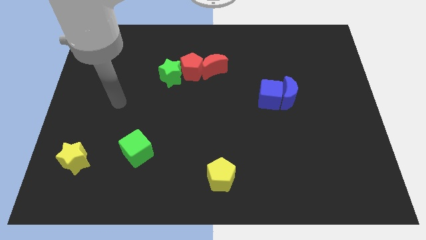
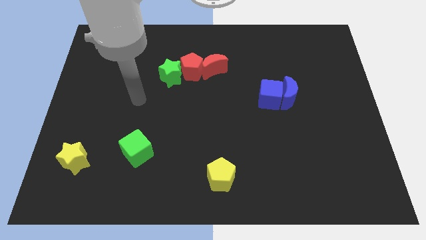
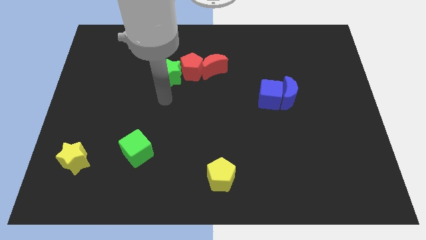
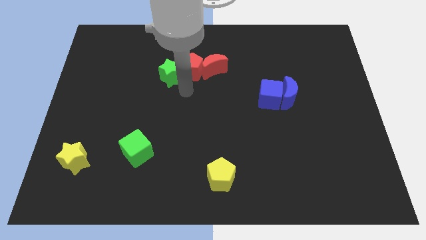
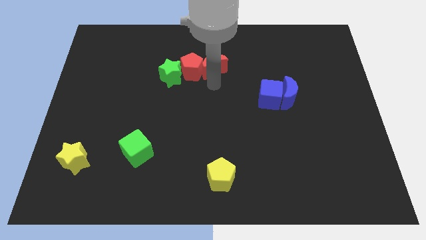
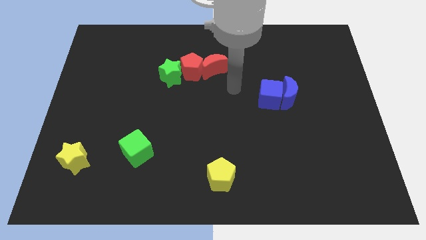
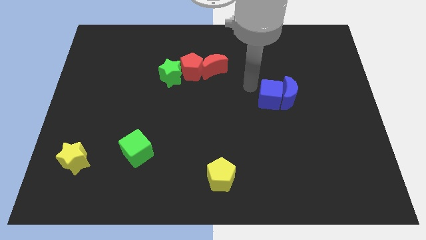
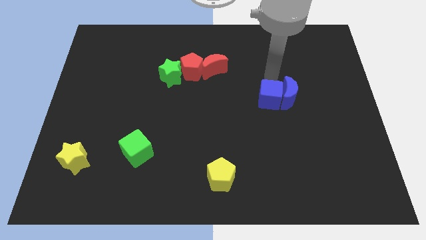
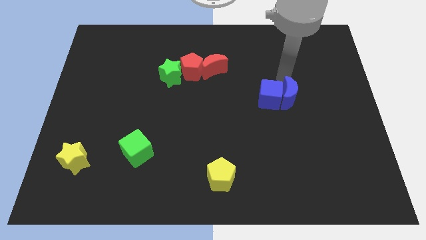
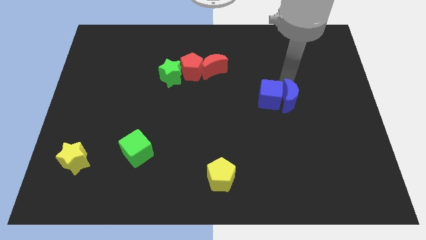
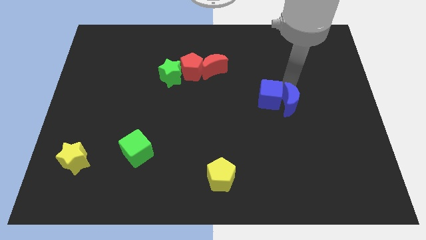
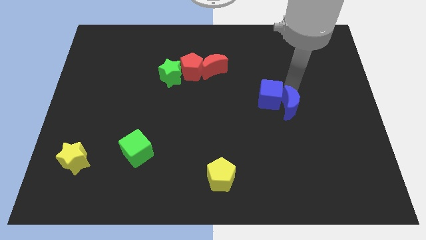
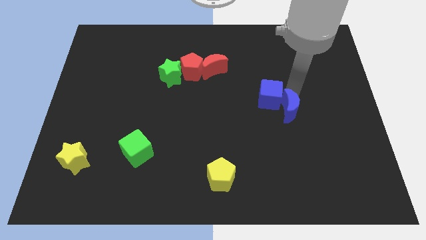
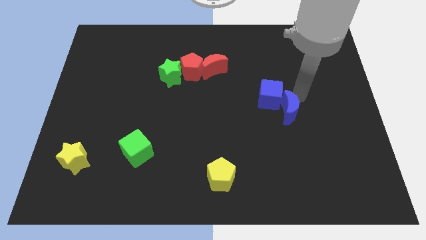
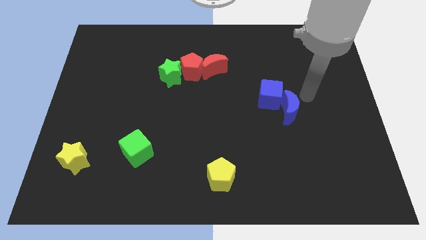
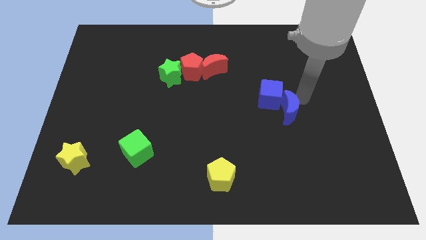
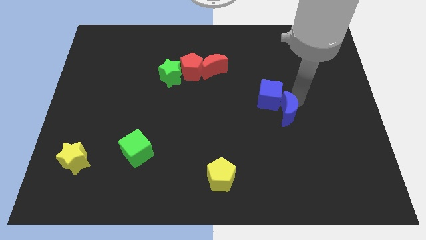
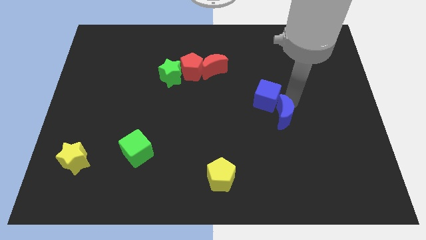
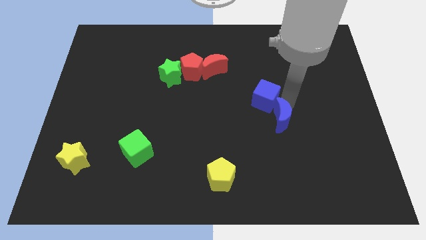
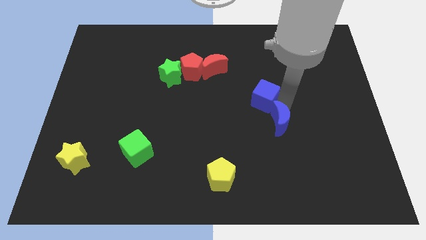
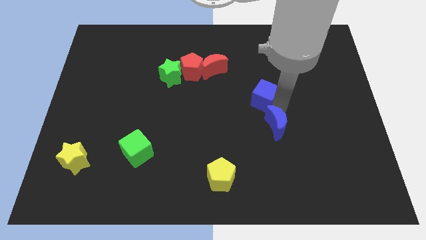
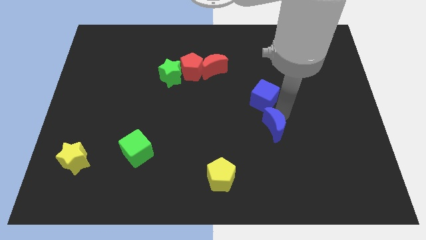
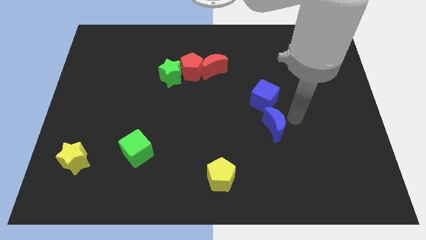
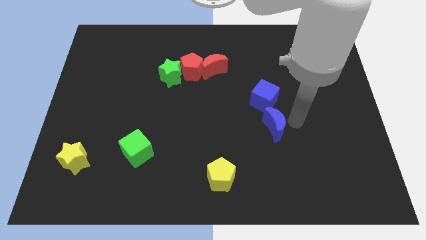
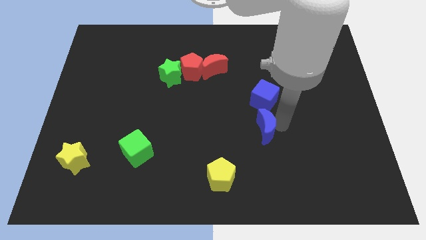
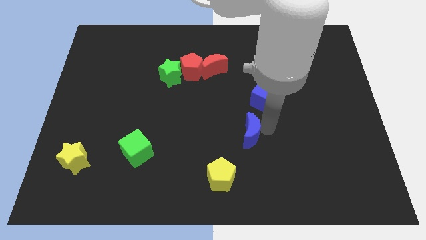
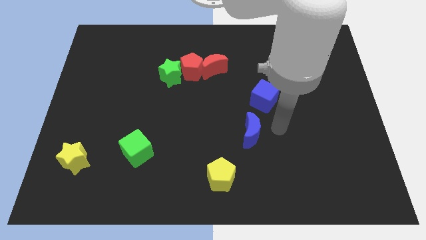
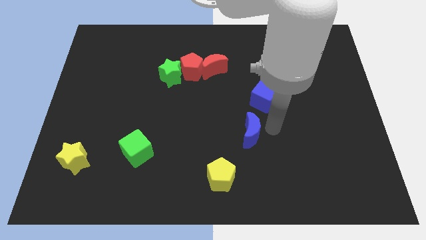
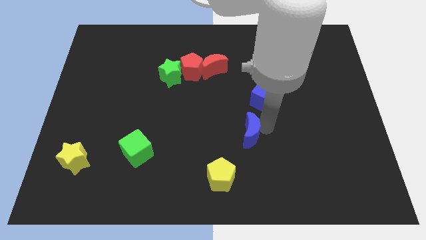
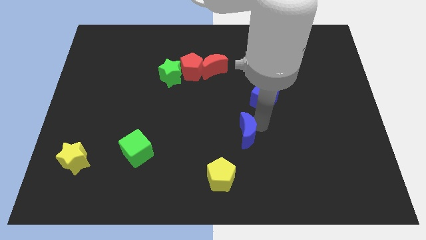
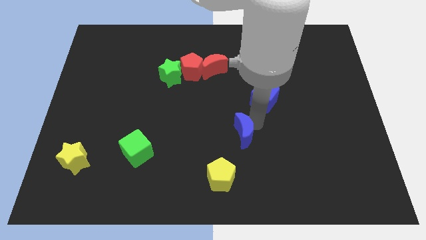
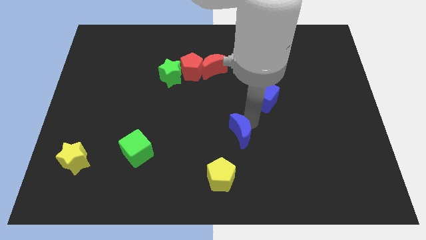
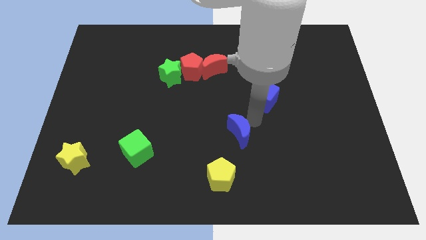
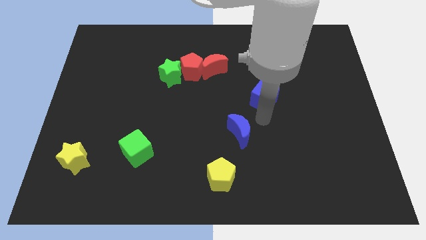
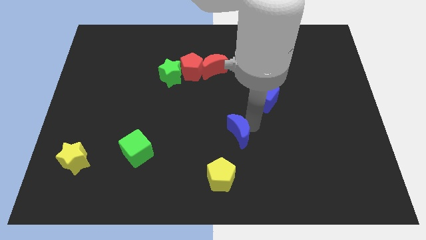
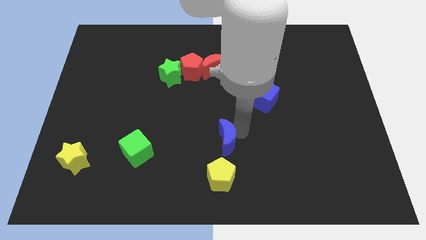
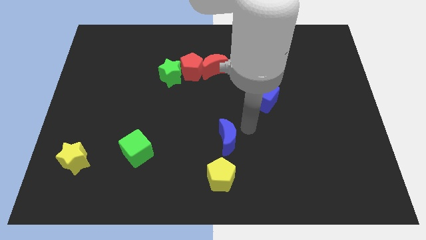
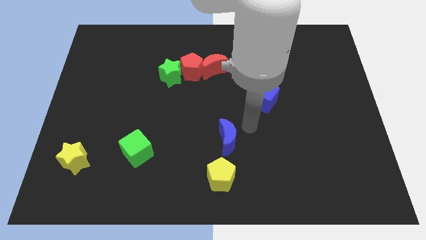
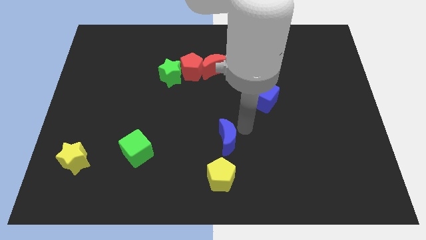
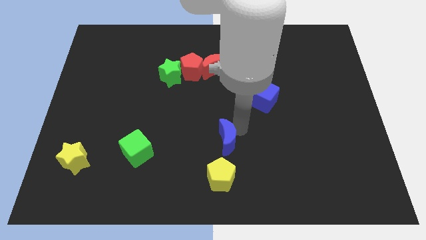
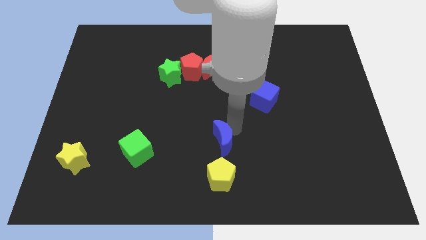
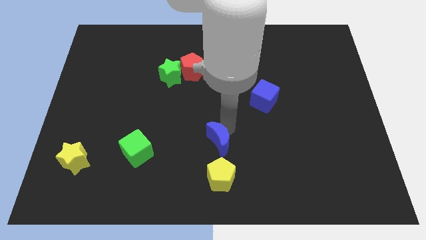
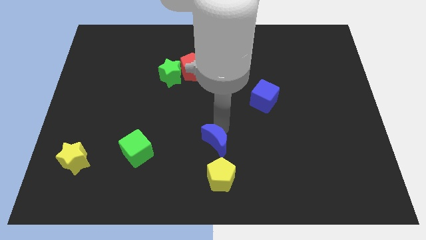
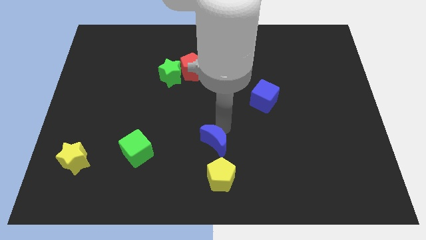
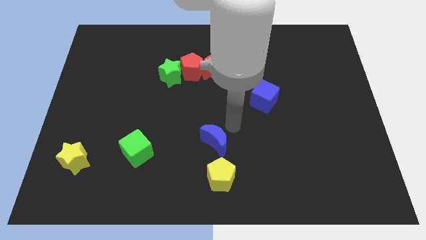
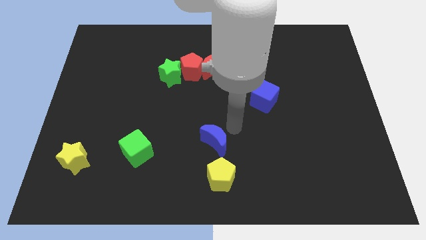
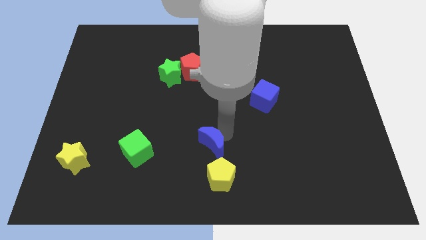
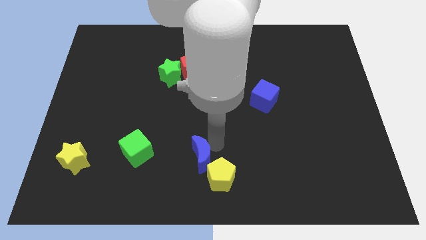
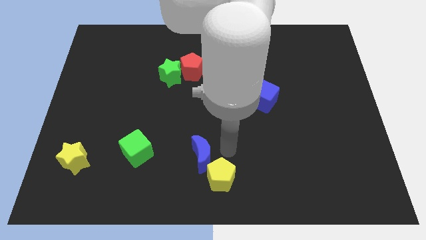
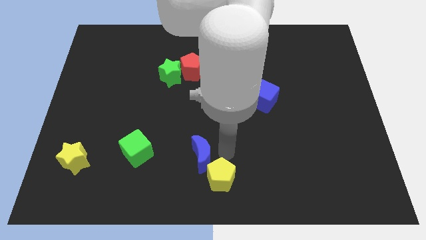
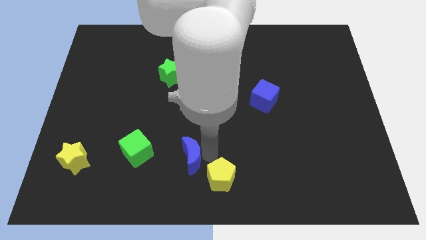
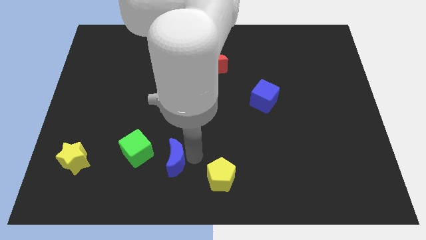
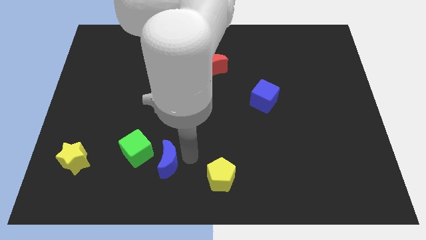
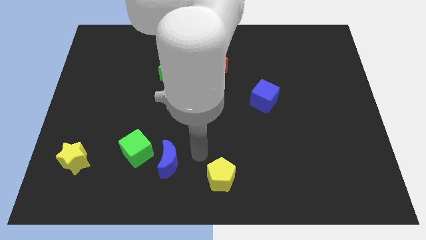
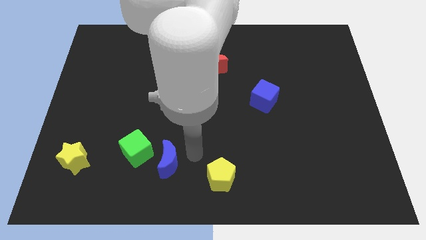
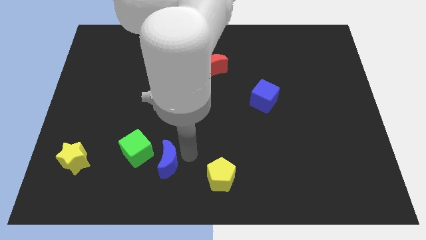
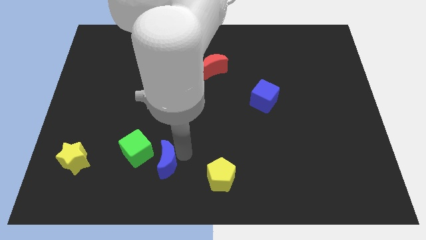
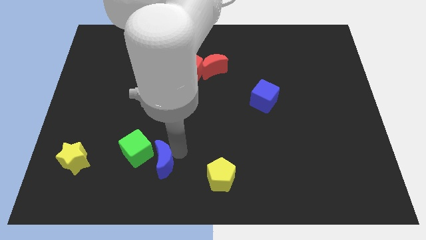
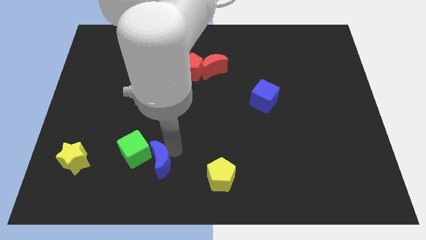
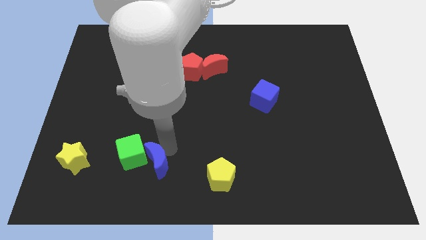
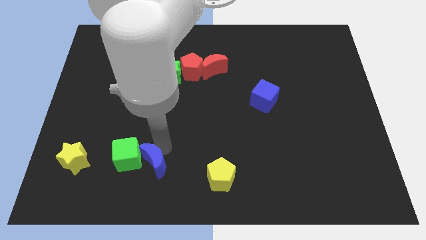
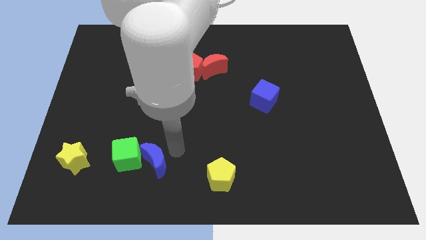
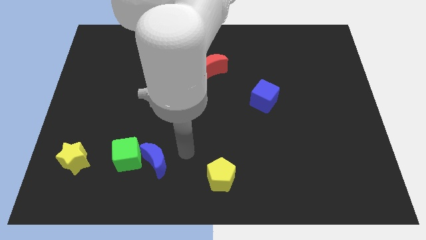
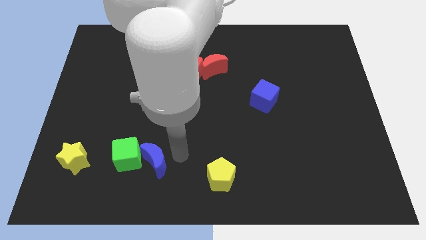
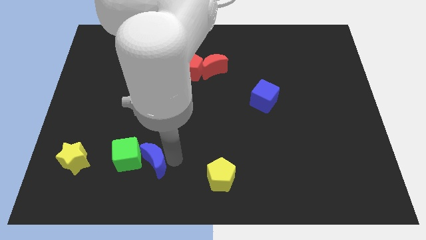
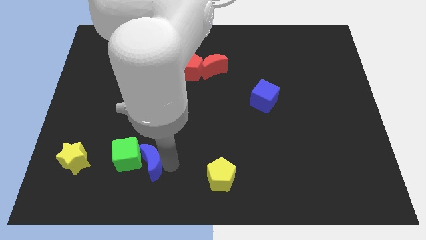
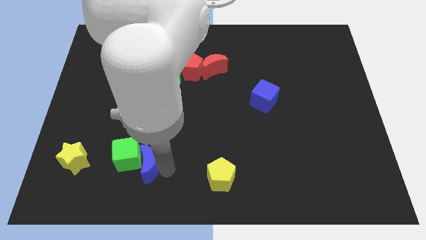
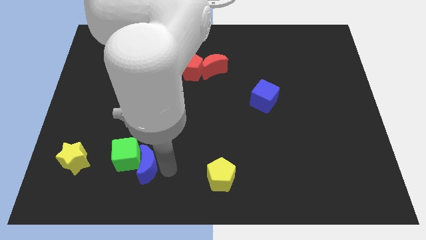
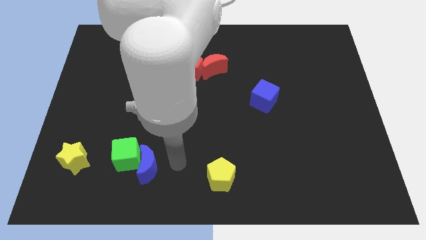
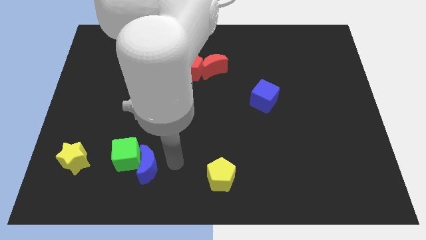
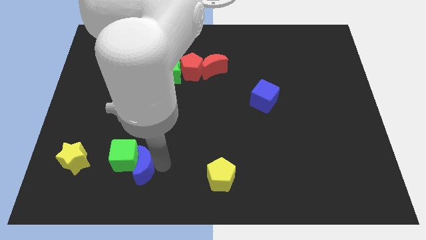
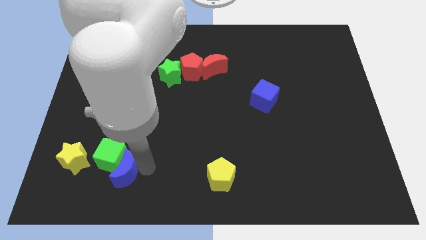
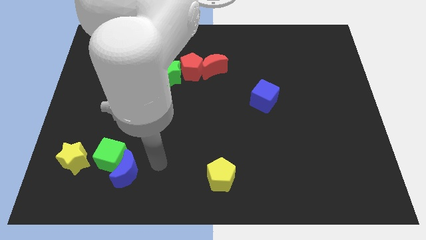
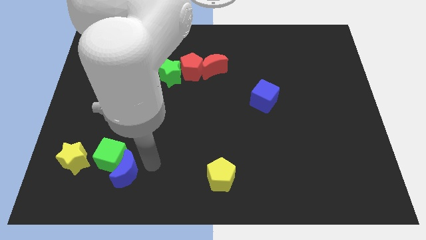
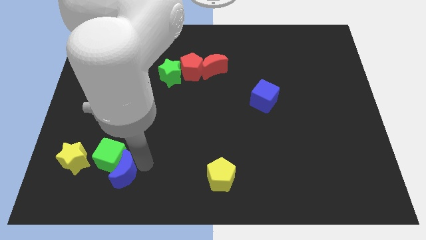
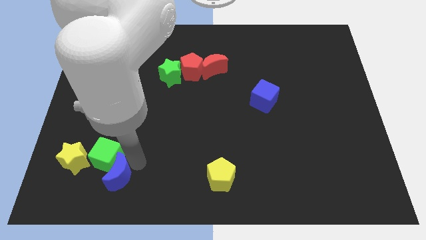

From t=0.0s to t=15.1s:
put the blue moon diagonally down and to the right of the yellow star
